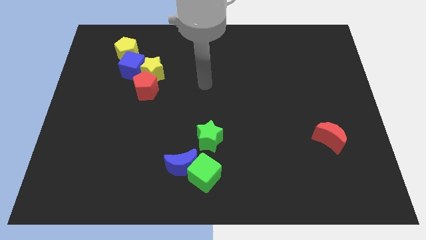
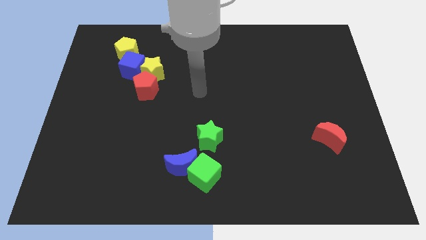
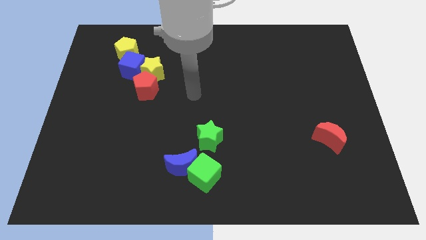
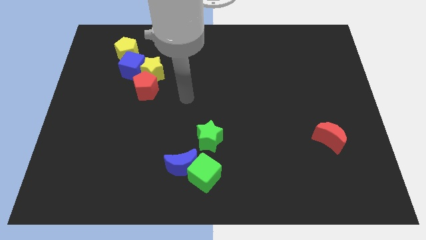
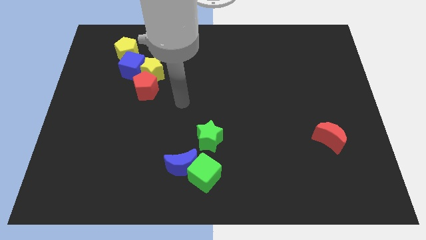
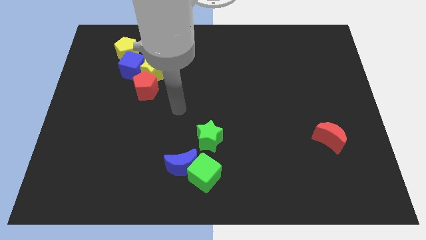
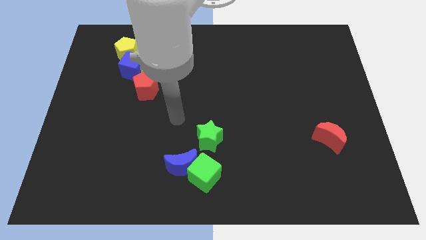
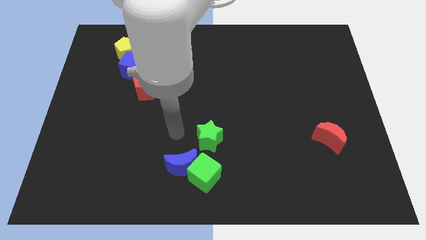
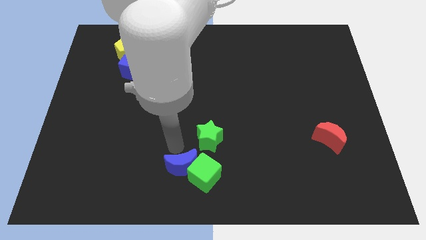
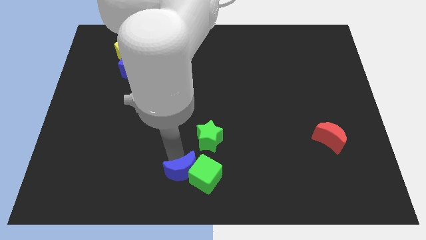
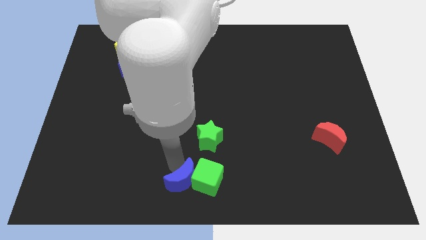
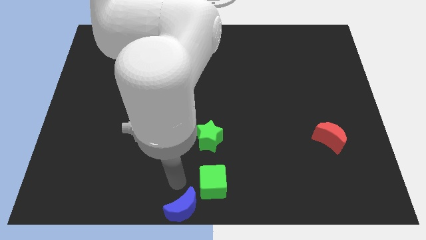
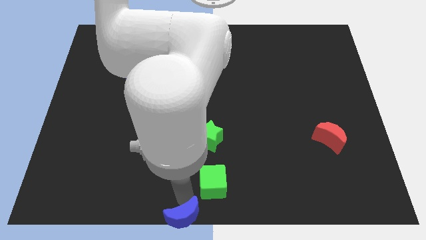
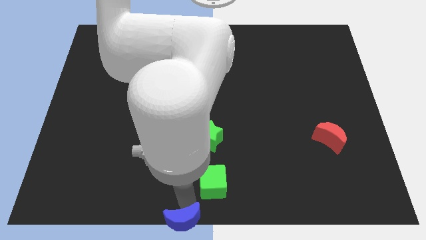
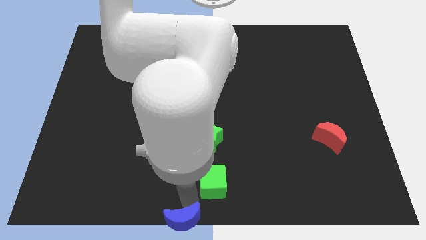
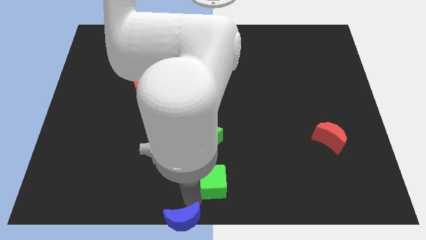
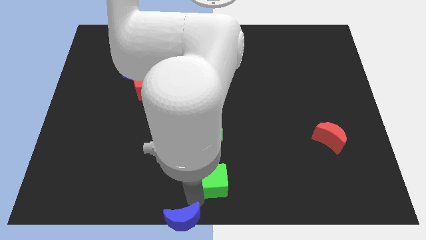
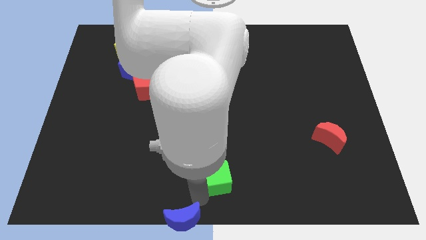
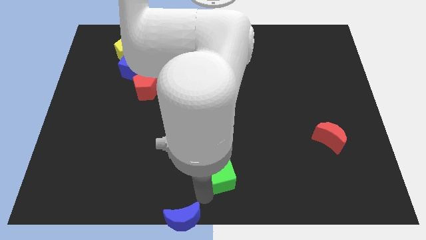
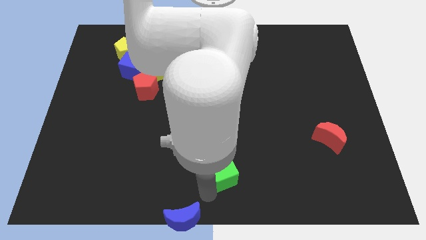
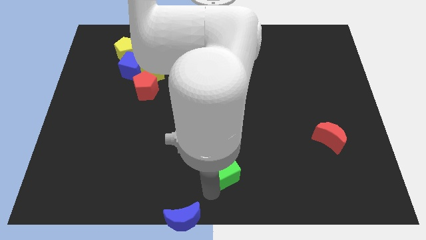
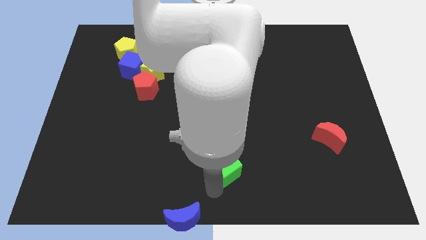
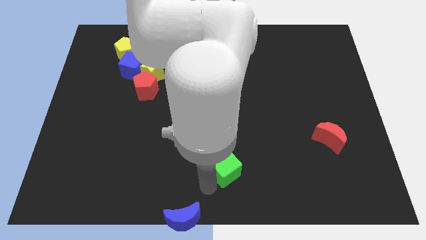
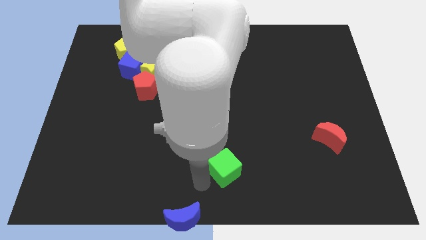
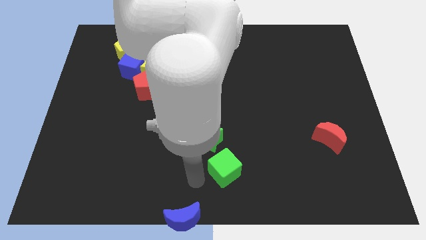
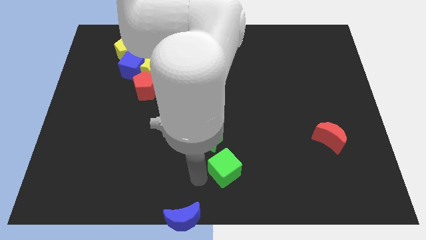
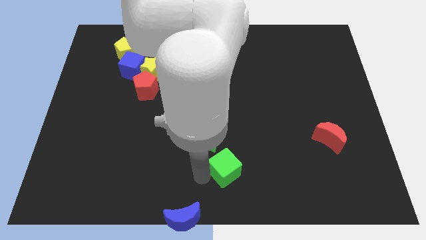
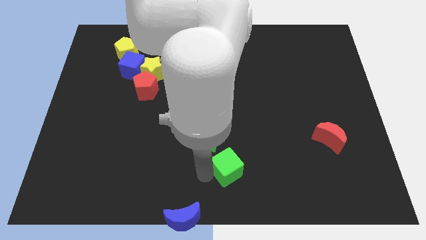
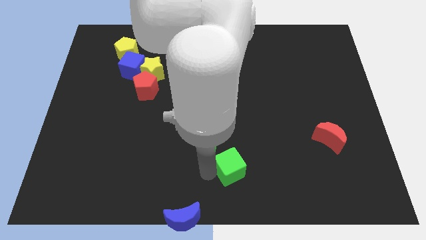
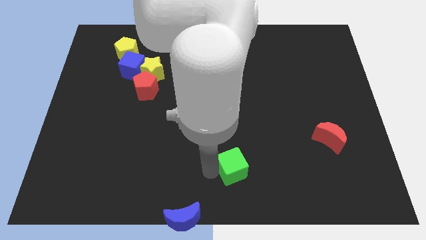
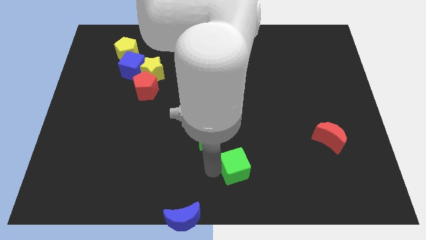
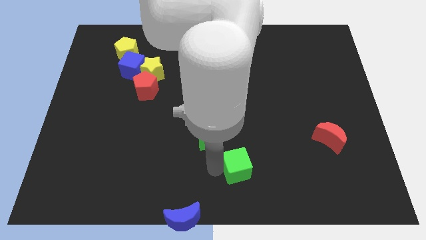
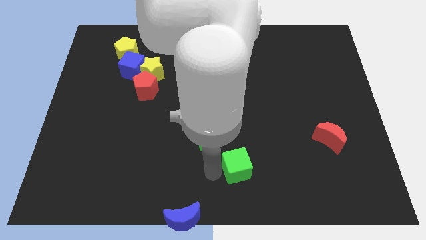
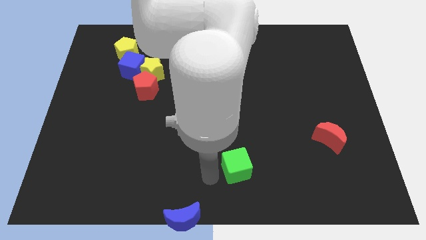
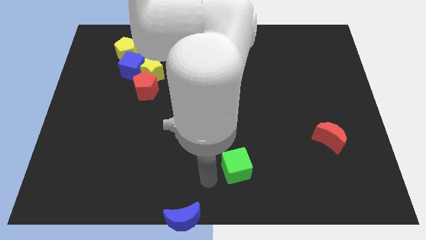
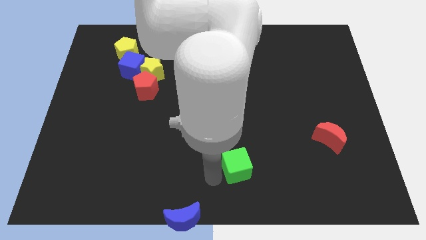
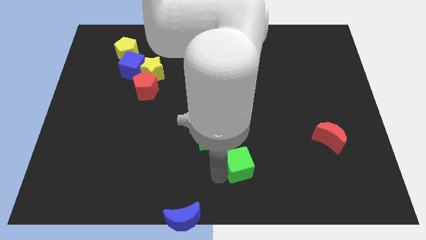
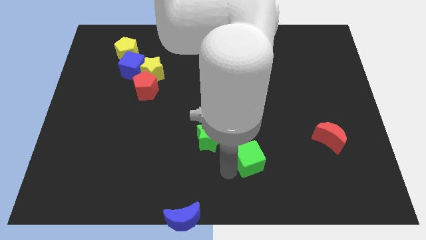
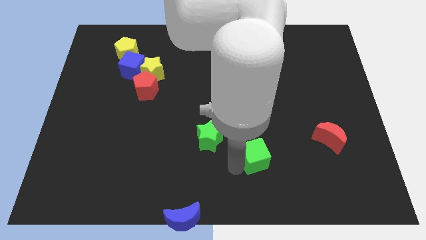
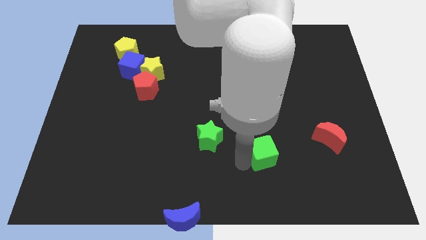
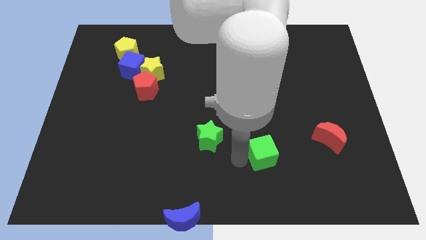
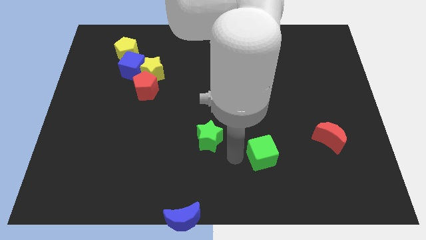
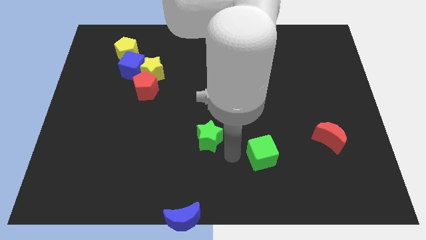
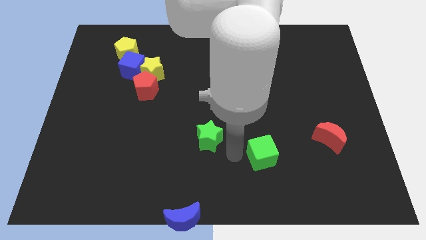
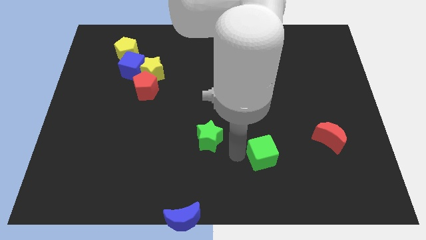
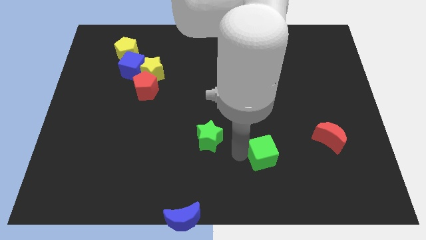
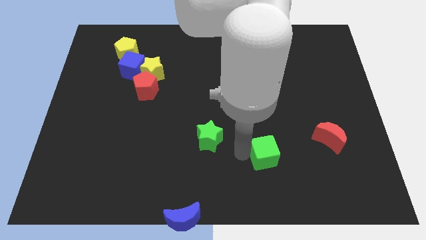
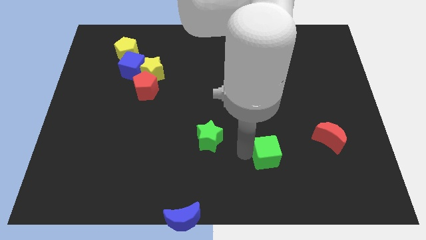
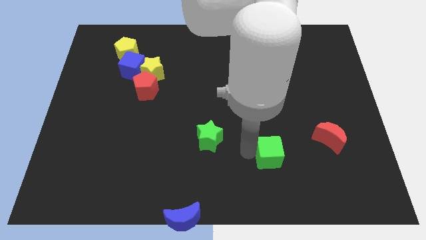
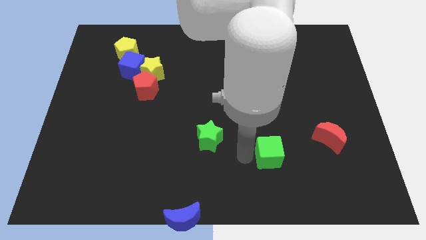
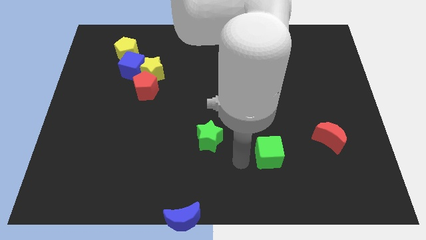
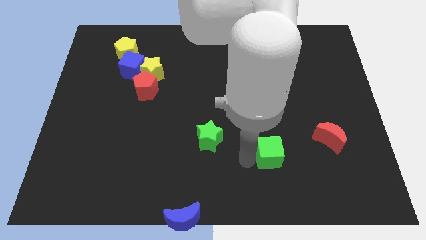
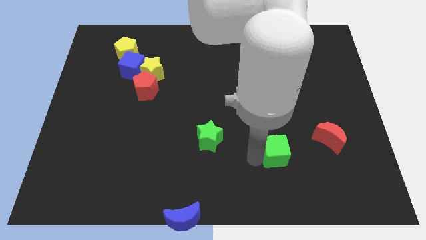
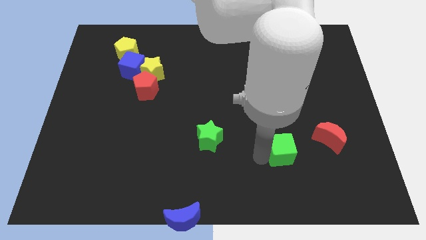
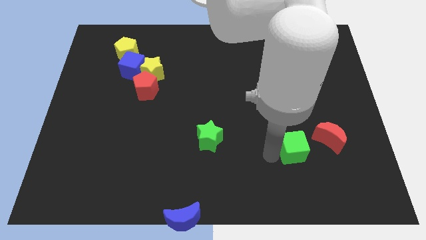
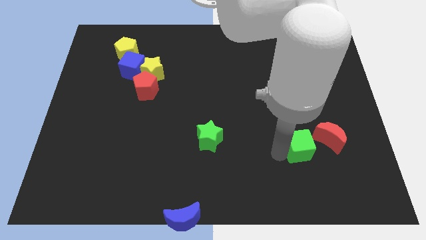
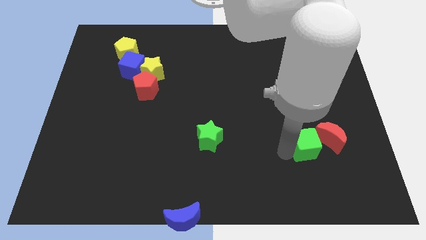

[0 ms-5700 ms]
move the green cube to the red moon
